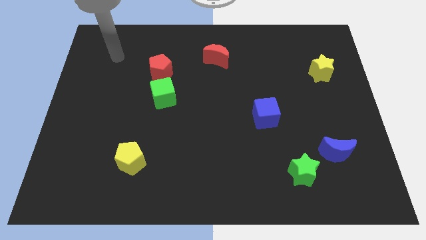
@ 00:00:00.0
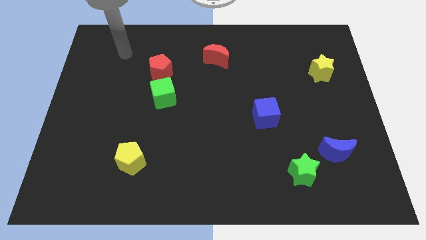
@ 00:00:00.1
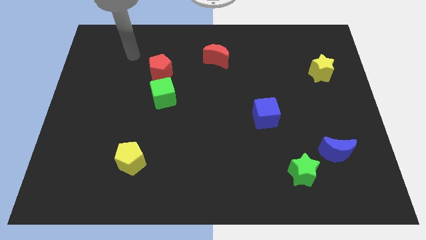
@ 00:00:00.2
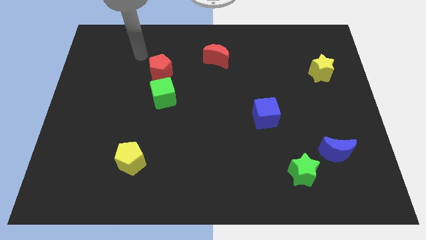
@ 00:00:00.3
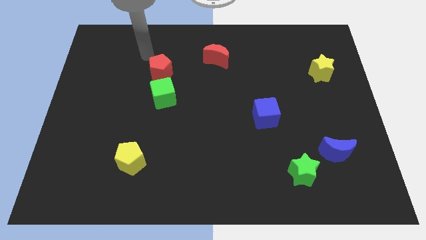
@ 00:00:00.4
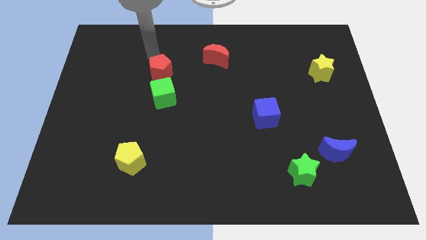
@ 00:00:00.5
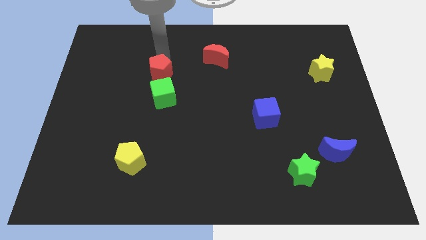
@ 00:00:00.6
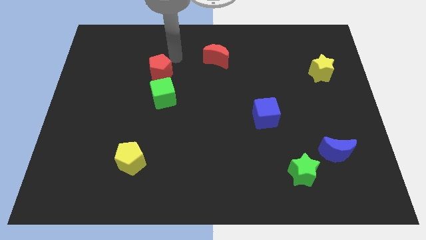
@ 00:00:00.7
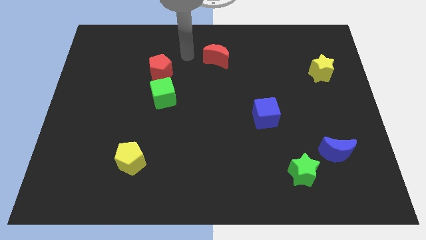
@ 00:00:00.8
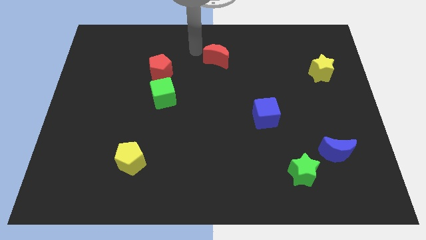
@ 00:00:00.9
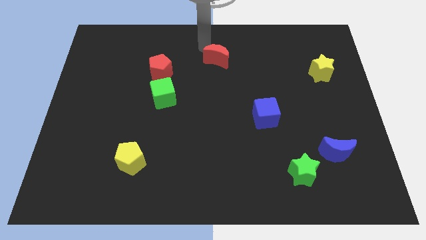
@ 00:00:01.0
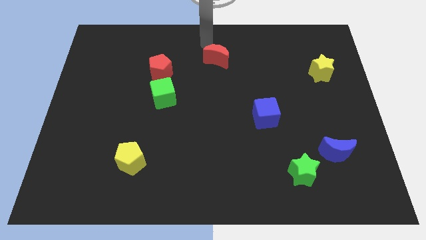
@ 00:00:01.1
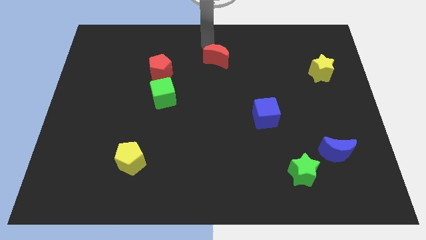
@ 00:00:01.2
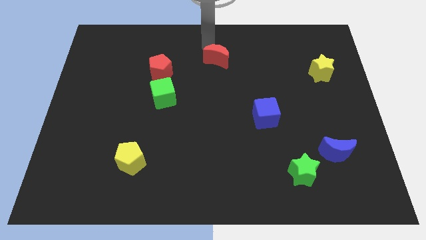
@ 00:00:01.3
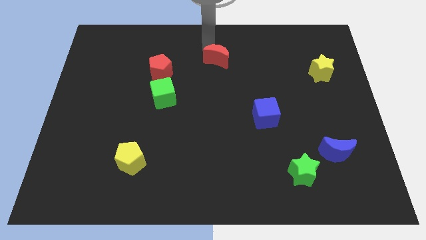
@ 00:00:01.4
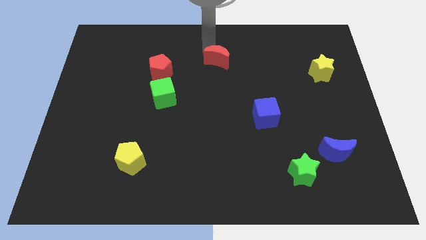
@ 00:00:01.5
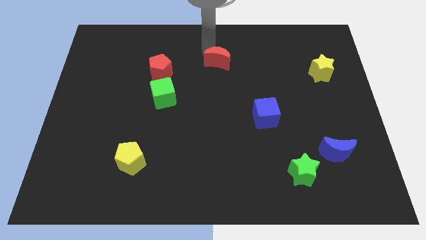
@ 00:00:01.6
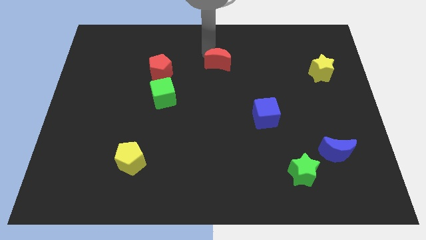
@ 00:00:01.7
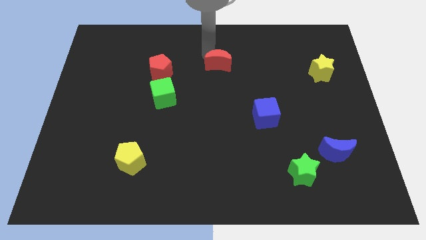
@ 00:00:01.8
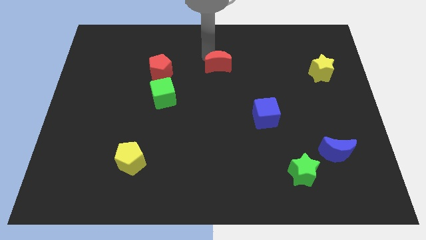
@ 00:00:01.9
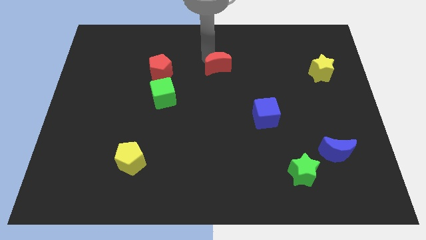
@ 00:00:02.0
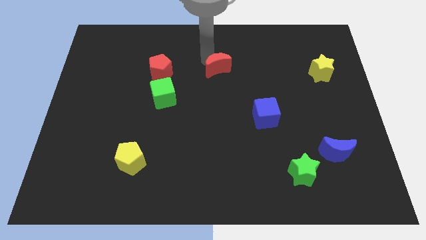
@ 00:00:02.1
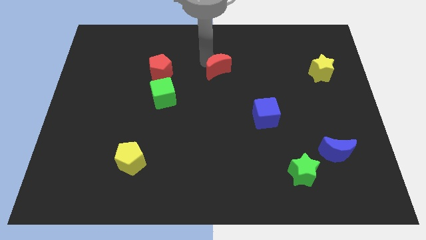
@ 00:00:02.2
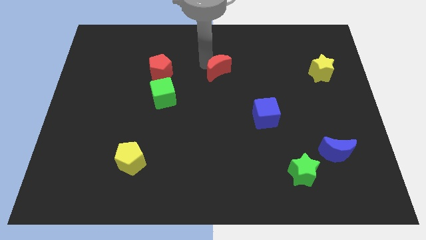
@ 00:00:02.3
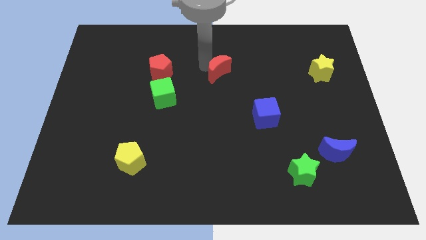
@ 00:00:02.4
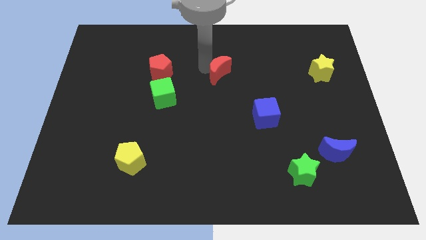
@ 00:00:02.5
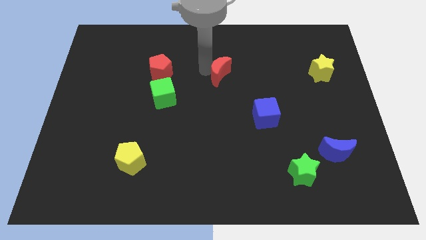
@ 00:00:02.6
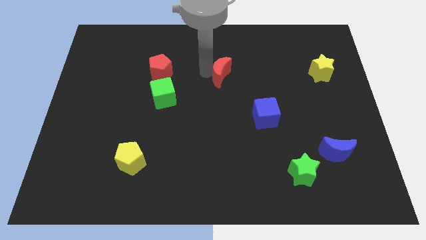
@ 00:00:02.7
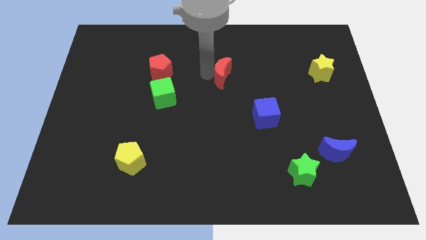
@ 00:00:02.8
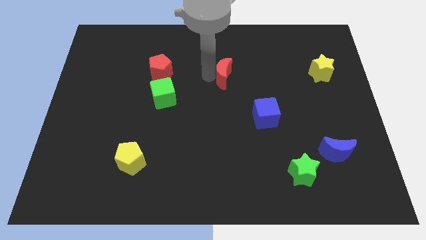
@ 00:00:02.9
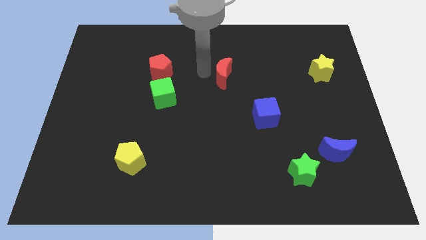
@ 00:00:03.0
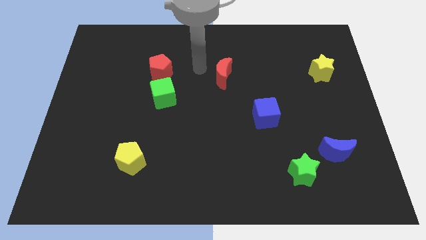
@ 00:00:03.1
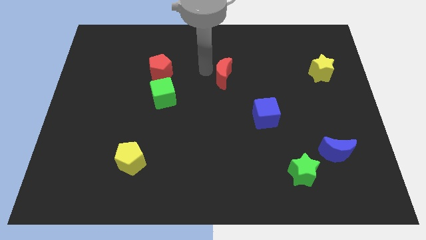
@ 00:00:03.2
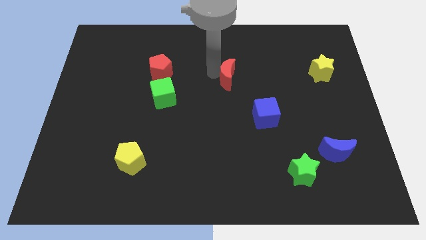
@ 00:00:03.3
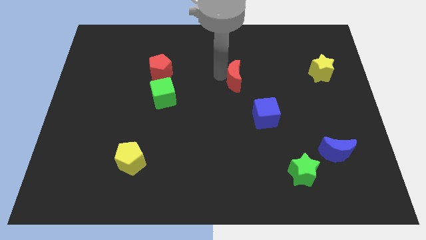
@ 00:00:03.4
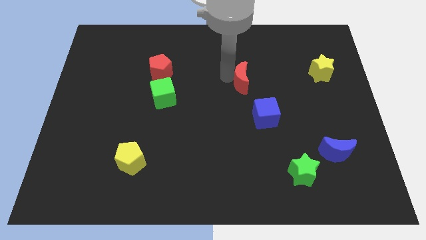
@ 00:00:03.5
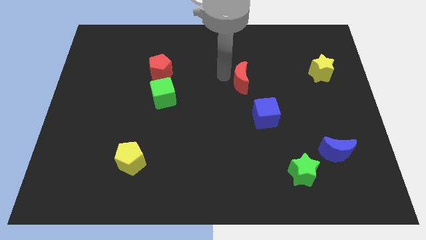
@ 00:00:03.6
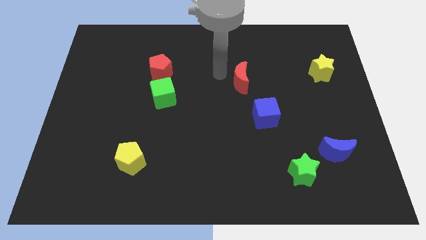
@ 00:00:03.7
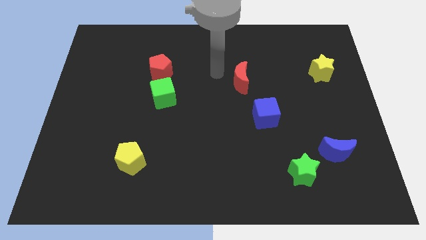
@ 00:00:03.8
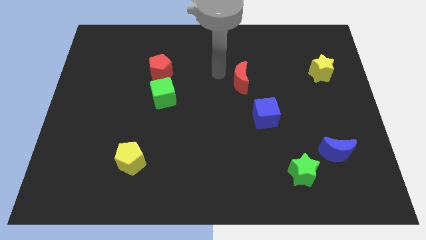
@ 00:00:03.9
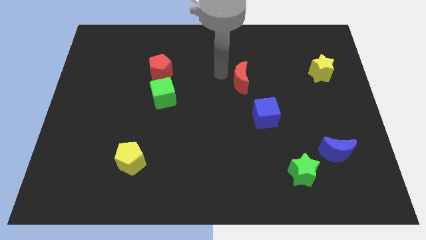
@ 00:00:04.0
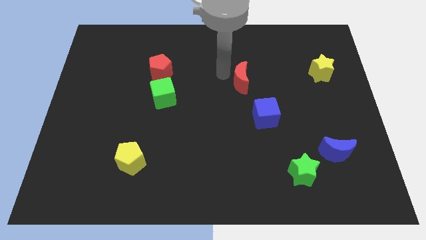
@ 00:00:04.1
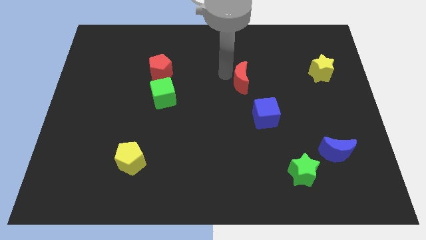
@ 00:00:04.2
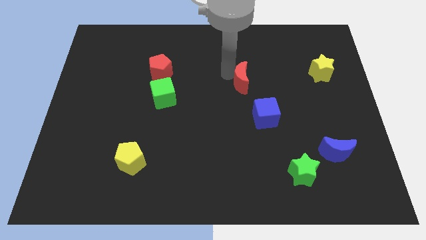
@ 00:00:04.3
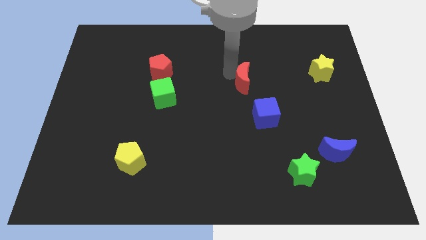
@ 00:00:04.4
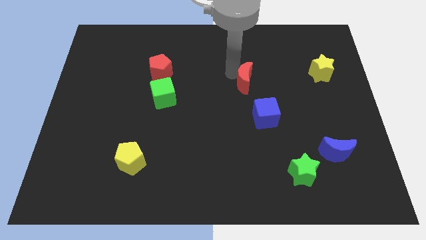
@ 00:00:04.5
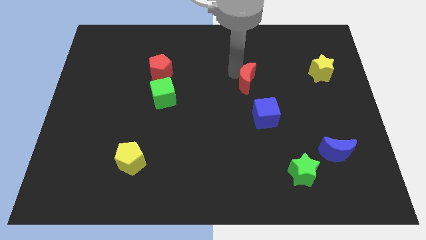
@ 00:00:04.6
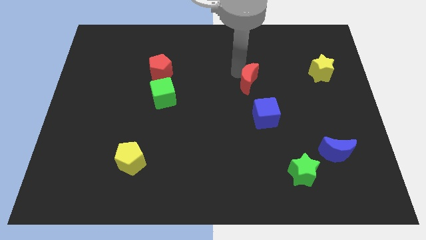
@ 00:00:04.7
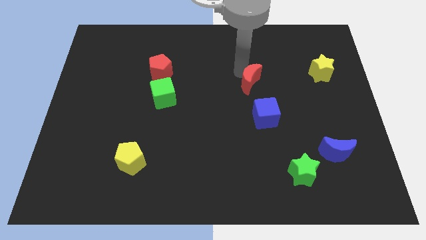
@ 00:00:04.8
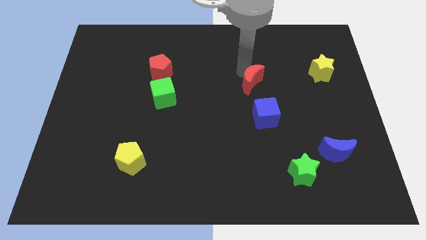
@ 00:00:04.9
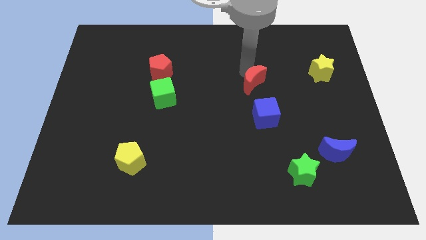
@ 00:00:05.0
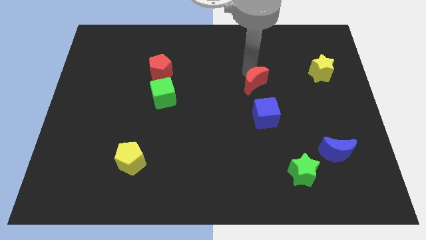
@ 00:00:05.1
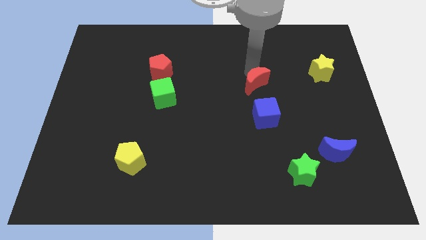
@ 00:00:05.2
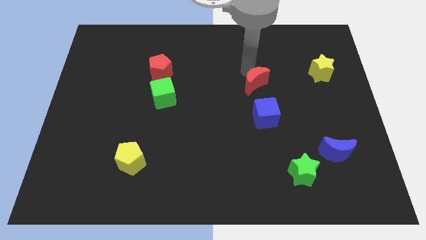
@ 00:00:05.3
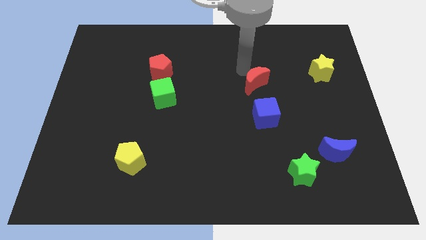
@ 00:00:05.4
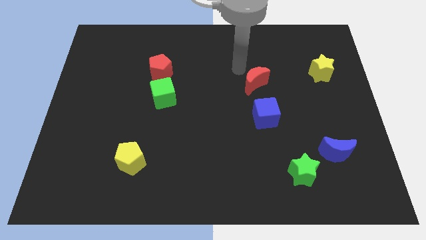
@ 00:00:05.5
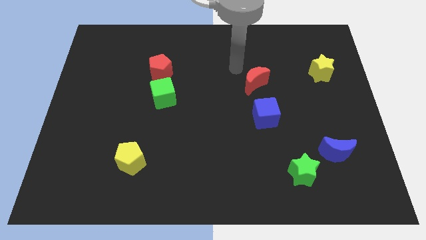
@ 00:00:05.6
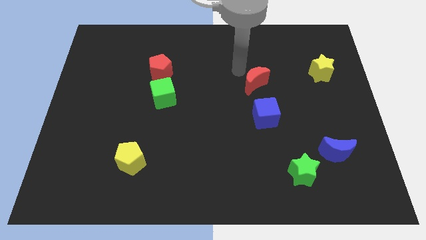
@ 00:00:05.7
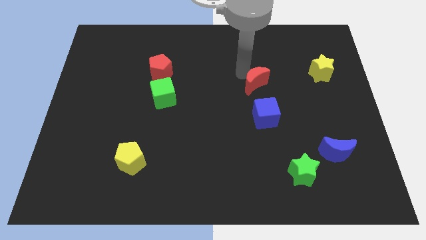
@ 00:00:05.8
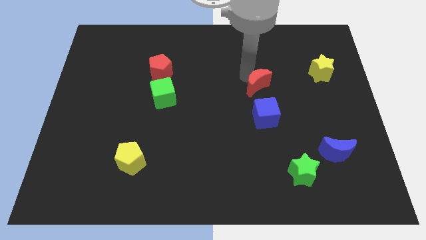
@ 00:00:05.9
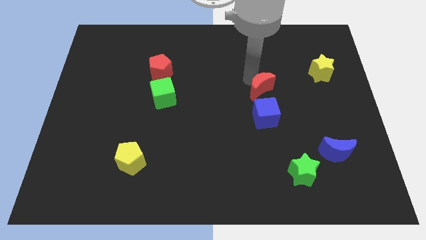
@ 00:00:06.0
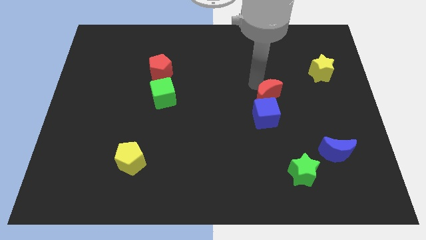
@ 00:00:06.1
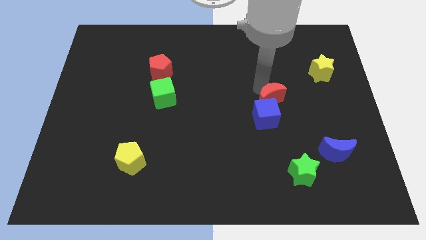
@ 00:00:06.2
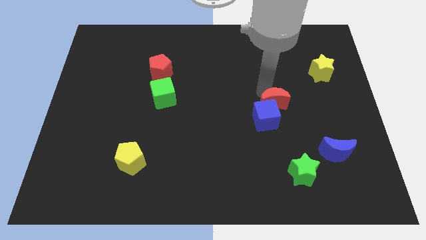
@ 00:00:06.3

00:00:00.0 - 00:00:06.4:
move the red moon downwards and right

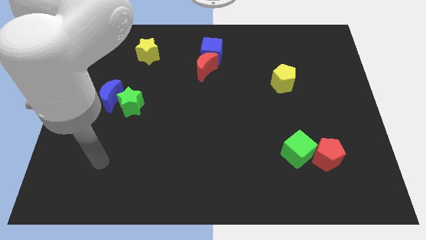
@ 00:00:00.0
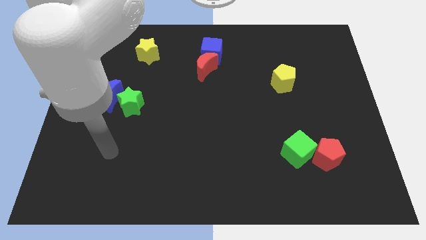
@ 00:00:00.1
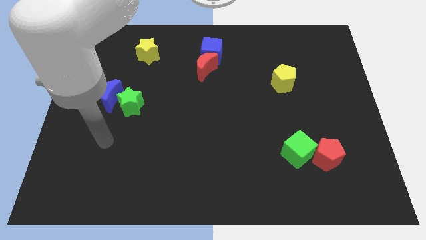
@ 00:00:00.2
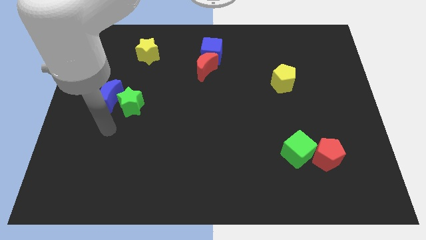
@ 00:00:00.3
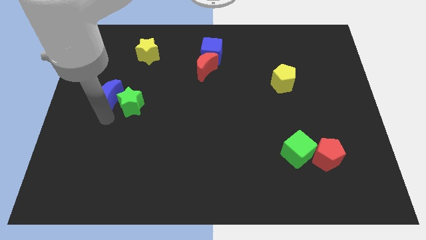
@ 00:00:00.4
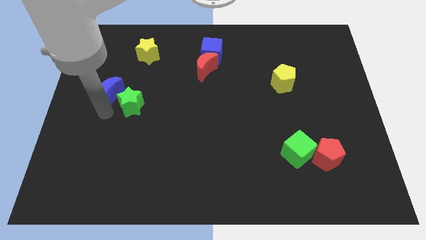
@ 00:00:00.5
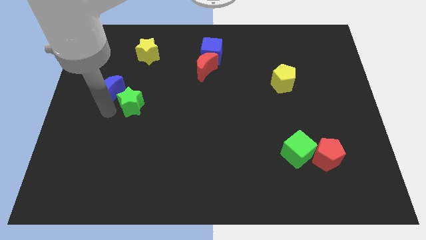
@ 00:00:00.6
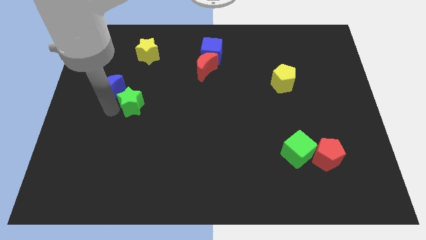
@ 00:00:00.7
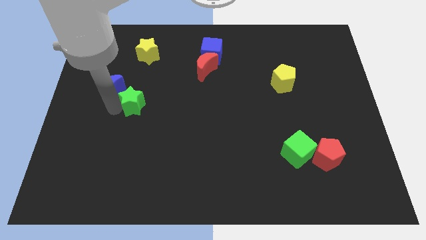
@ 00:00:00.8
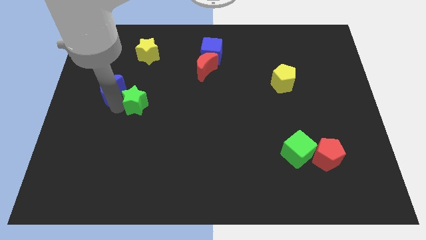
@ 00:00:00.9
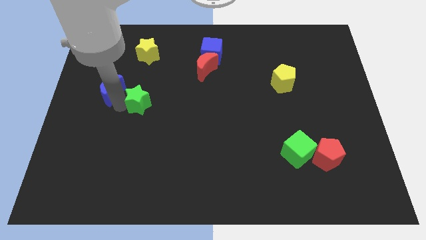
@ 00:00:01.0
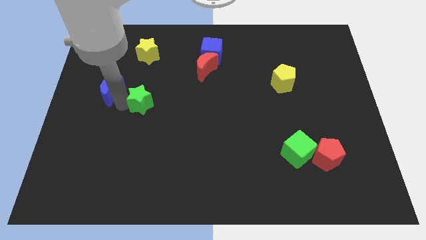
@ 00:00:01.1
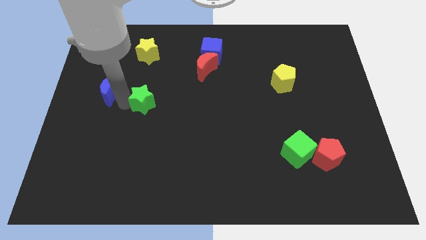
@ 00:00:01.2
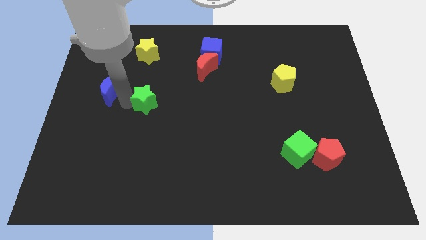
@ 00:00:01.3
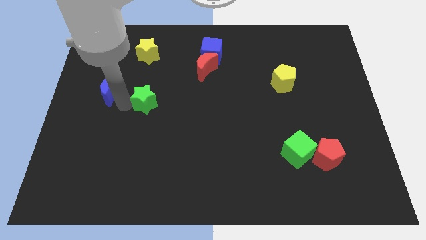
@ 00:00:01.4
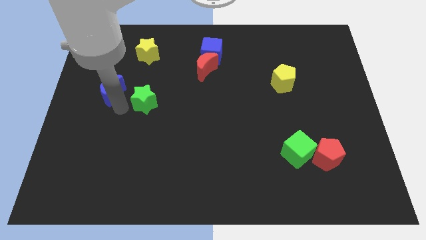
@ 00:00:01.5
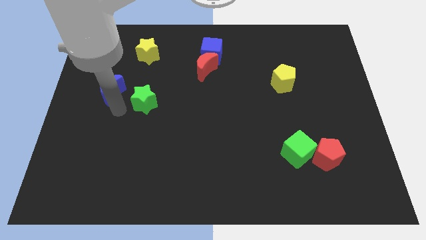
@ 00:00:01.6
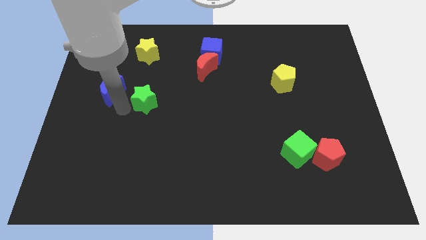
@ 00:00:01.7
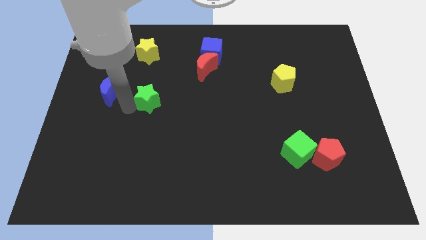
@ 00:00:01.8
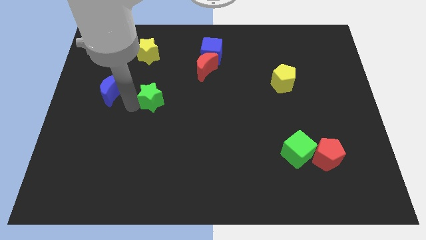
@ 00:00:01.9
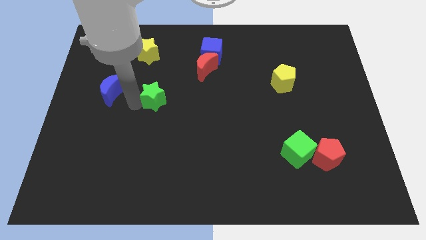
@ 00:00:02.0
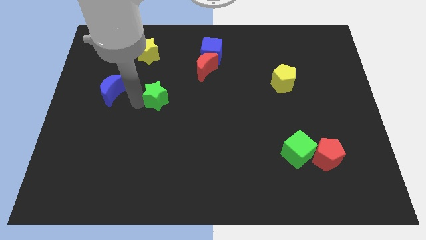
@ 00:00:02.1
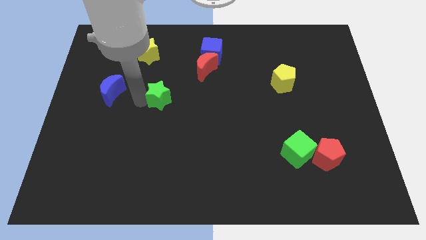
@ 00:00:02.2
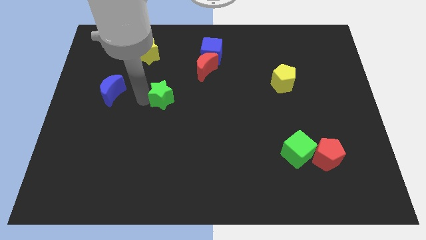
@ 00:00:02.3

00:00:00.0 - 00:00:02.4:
push the green star a bit right
